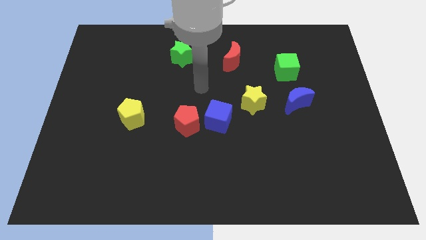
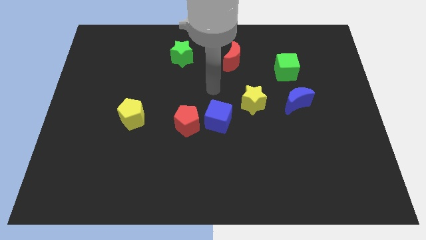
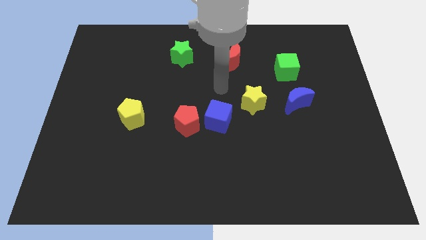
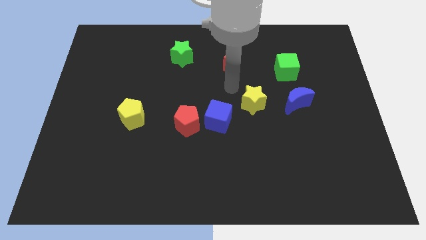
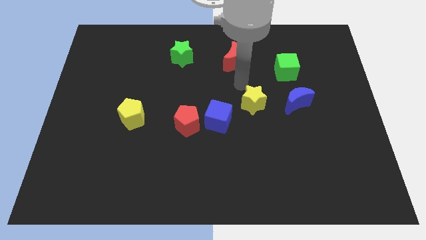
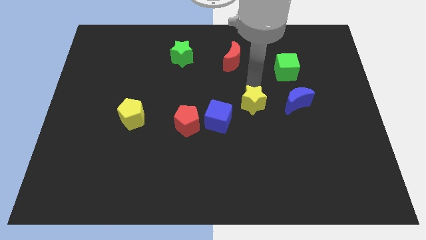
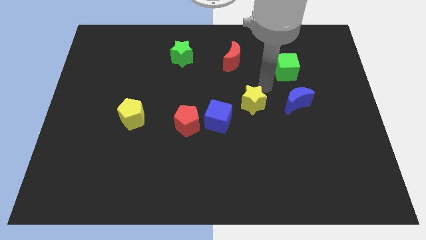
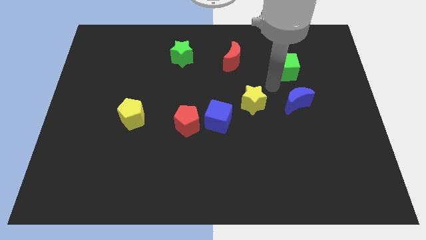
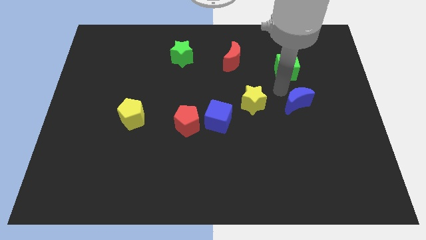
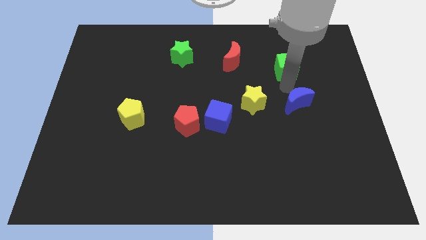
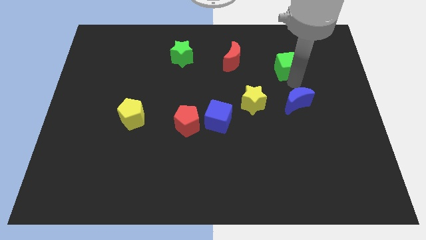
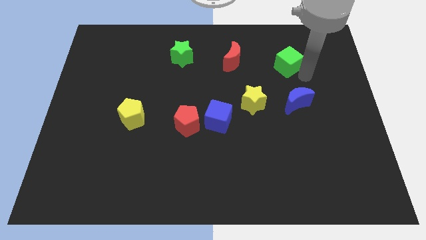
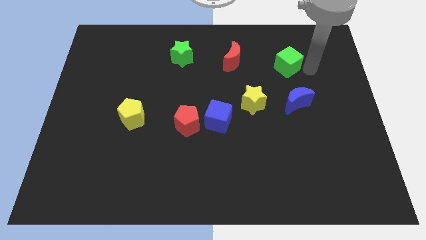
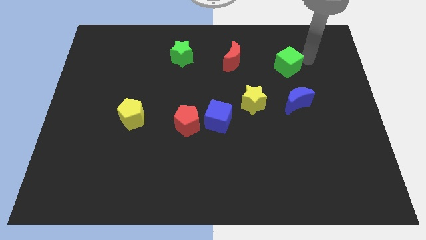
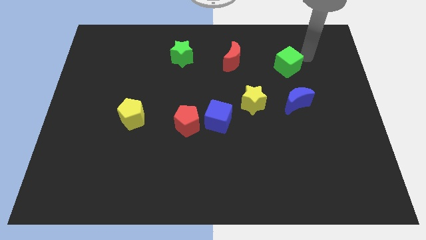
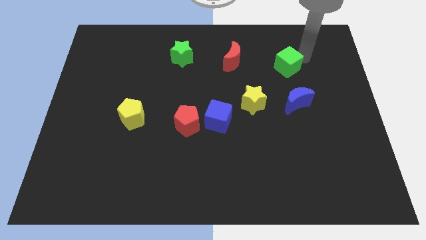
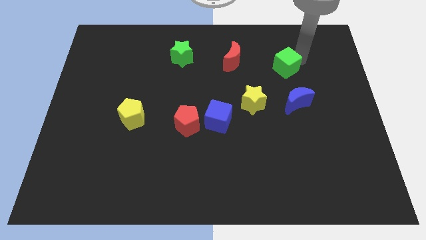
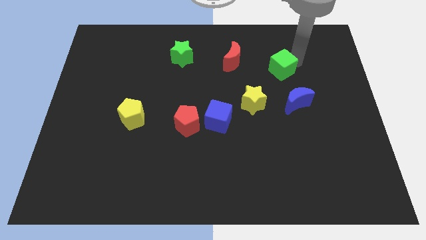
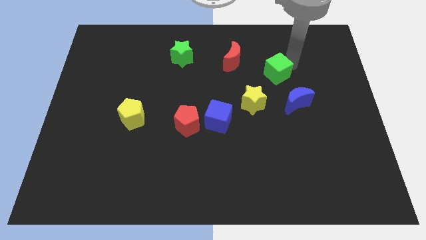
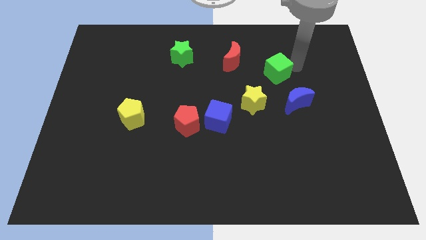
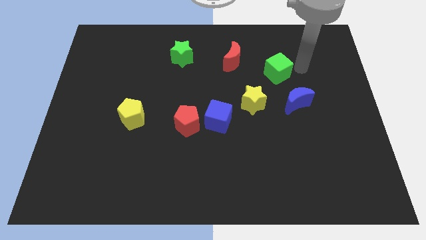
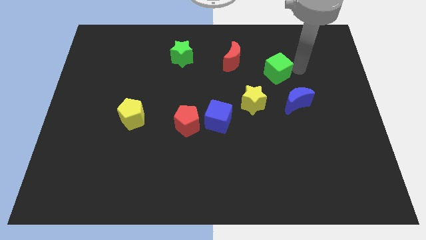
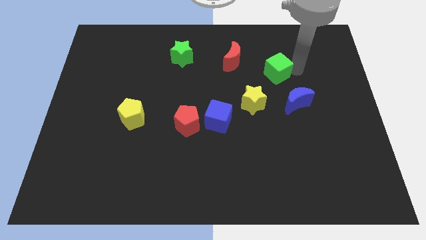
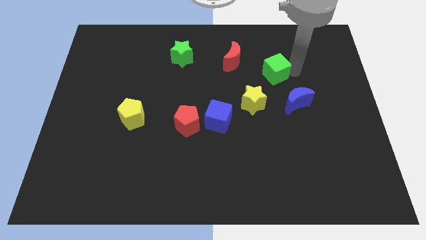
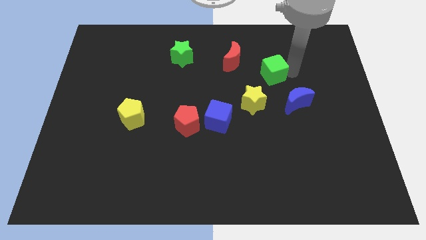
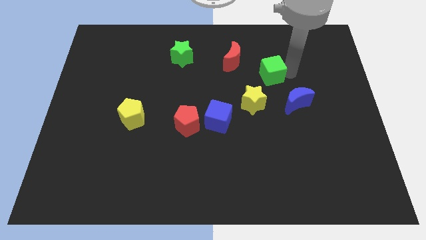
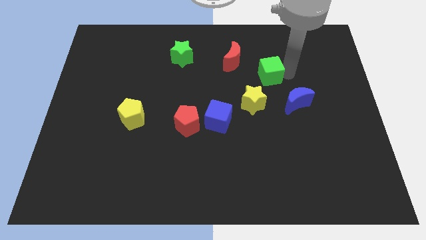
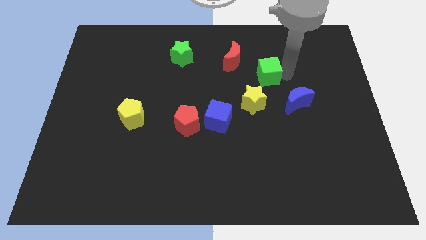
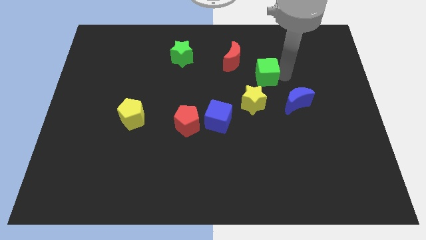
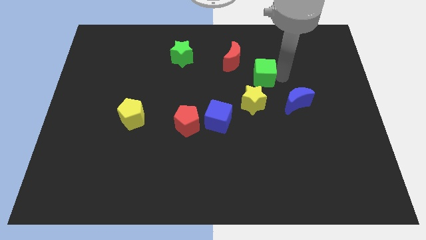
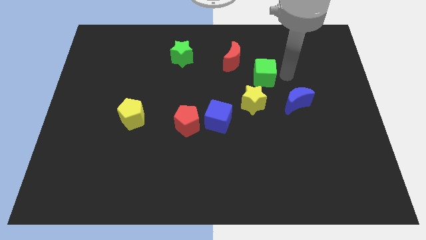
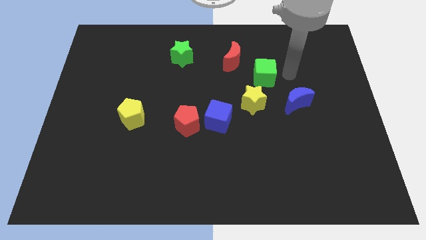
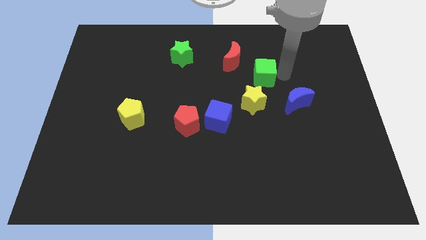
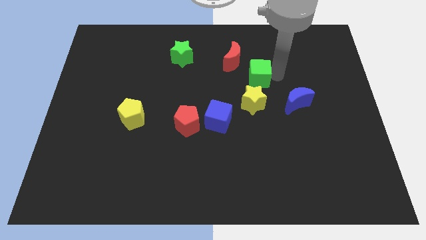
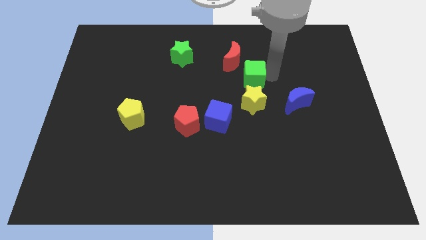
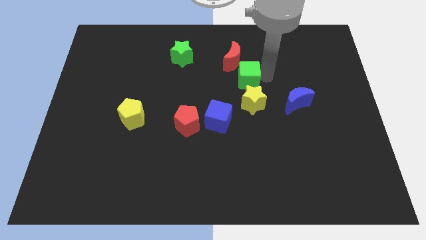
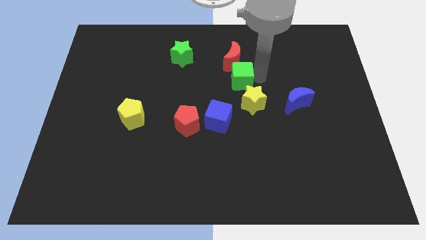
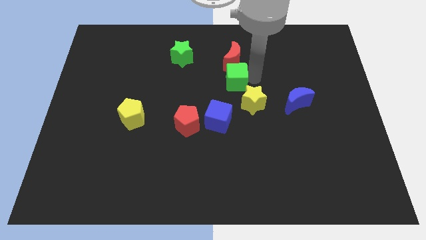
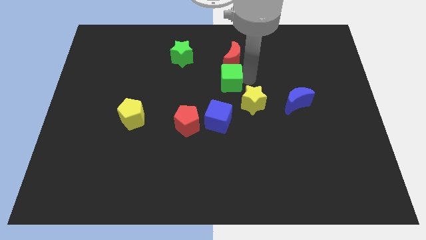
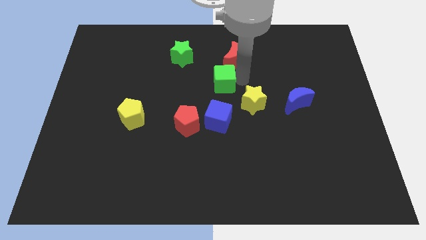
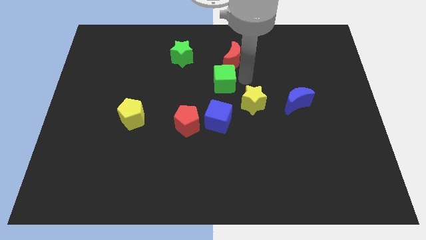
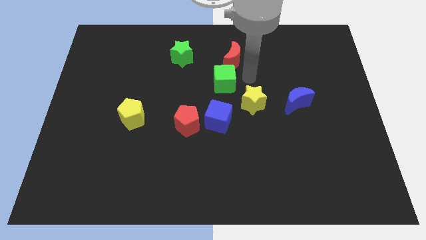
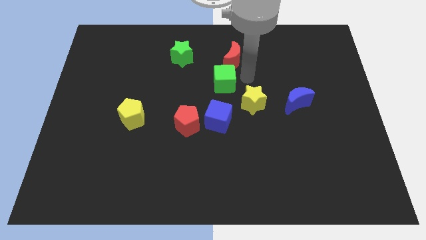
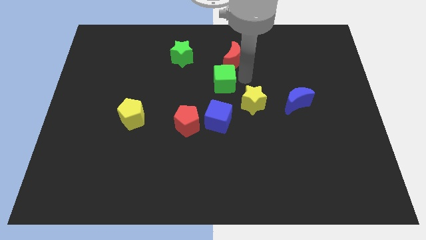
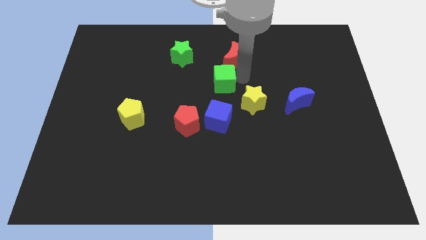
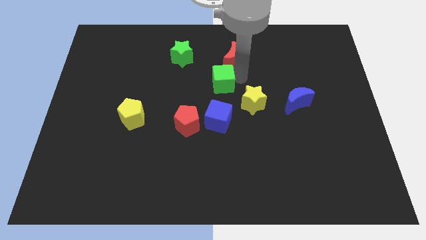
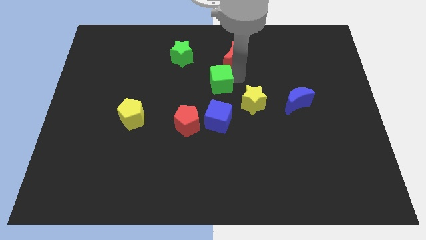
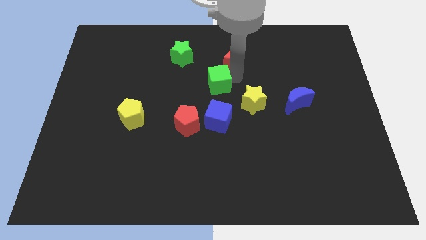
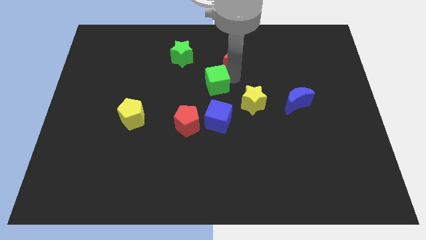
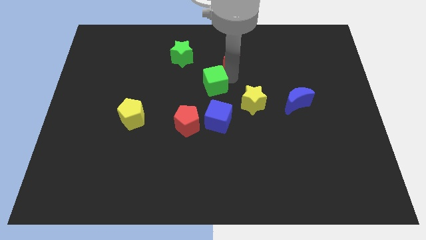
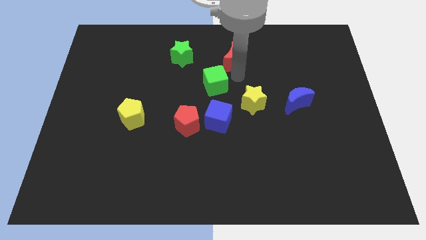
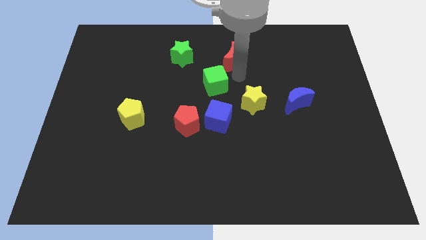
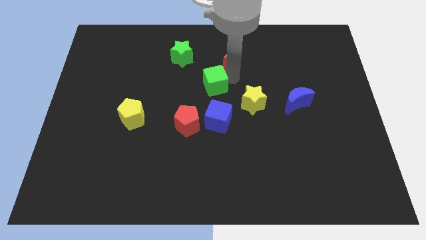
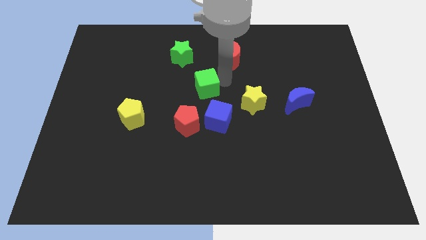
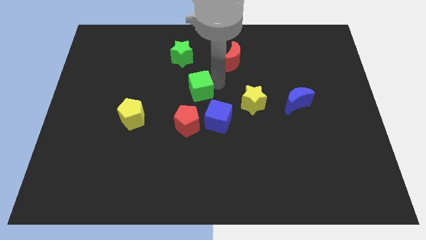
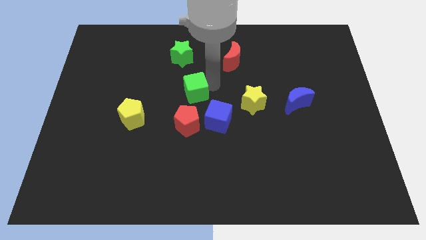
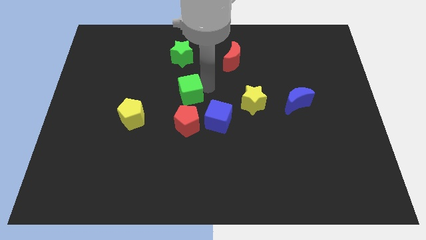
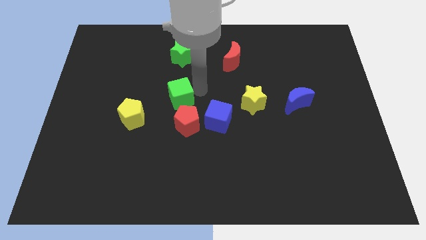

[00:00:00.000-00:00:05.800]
push the green cube to the top right of the yellow pentagon

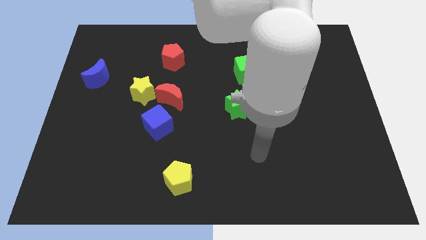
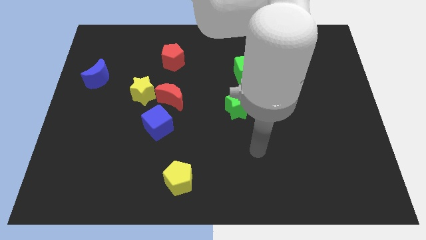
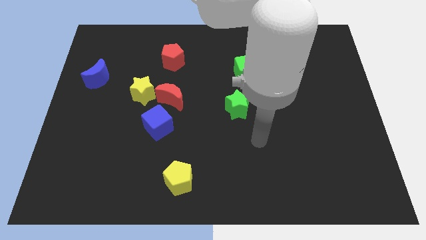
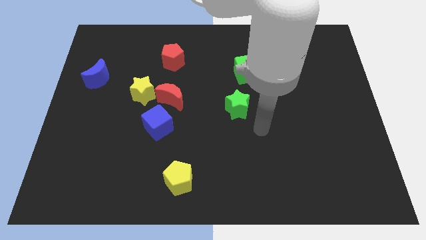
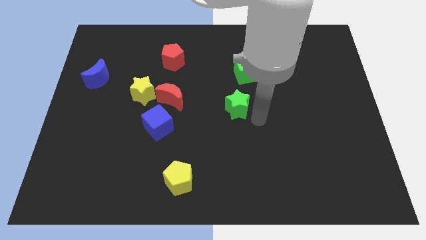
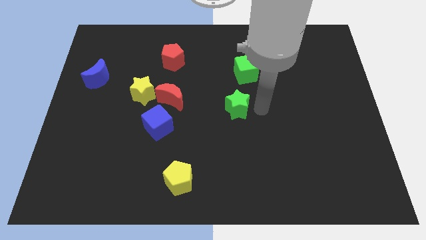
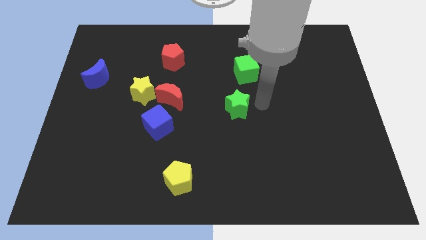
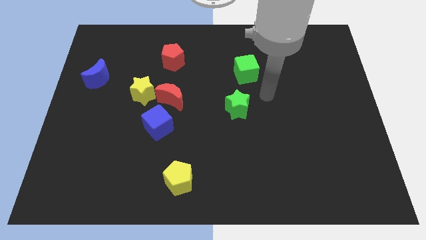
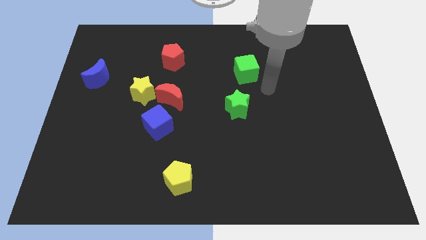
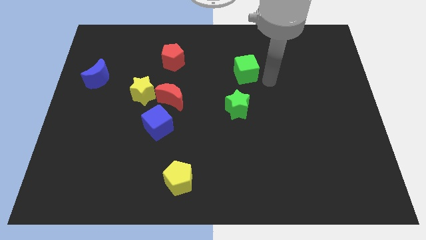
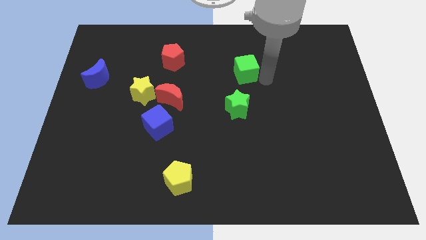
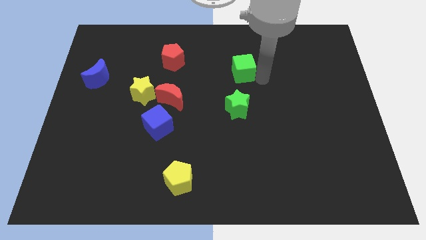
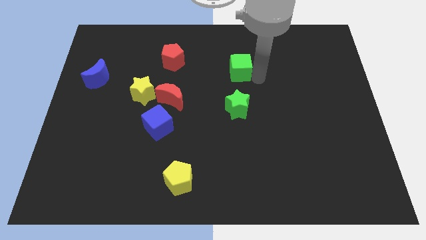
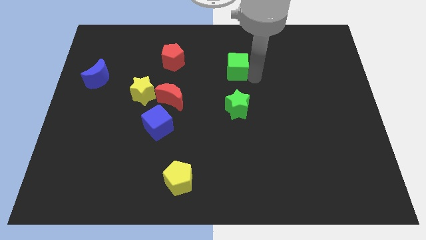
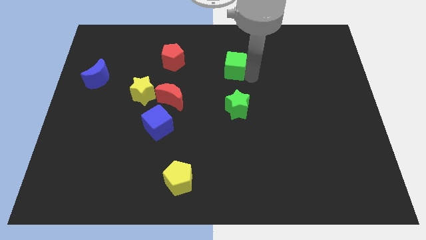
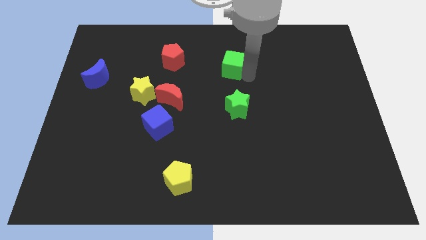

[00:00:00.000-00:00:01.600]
put the green cube right of the red pentagon

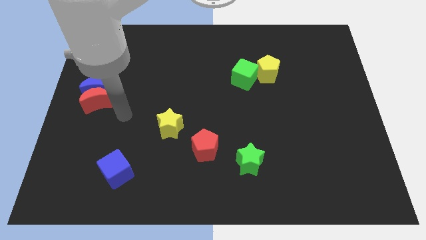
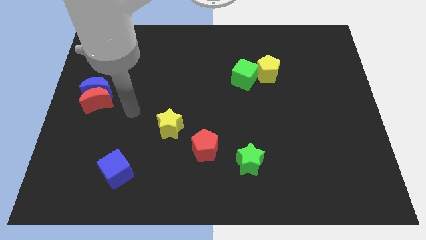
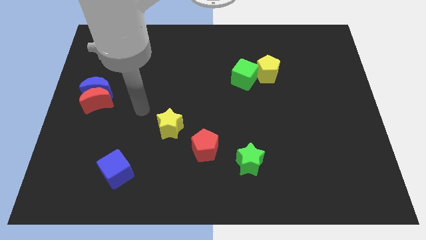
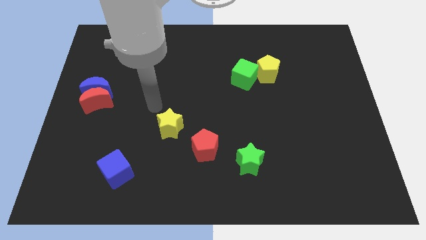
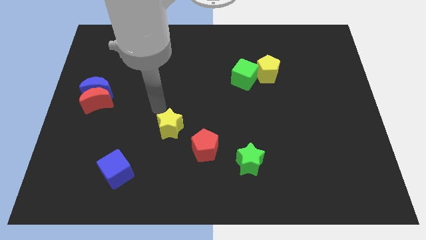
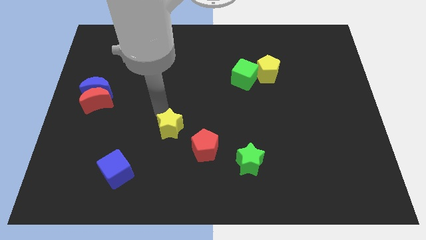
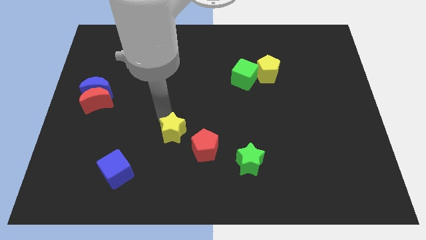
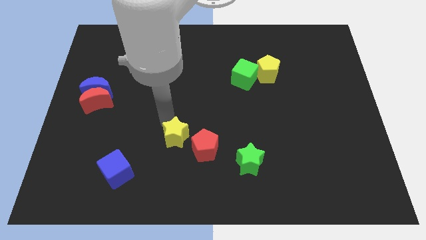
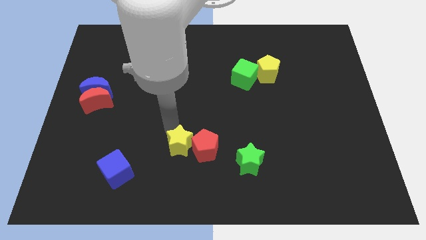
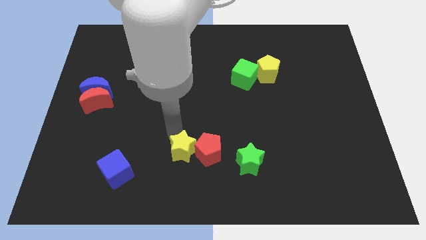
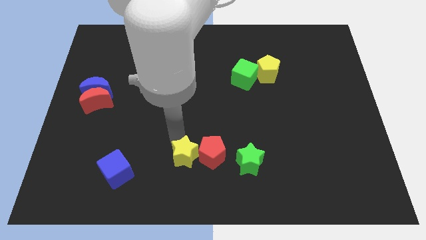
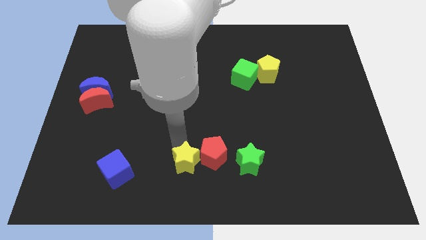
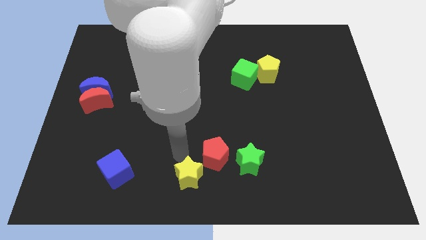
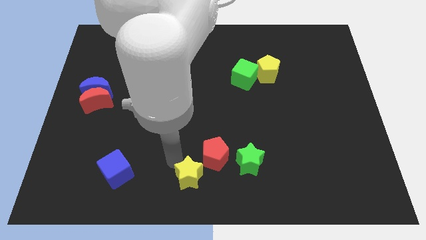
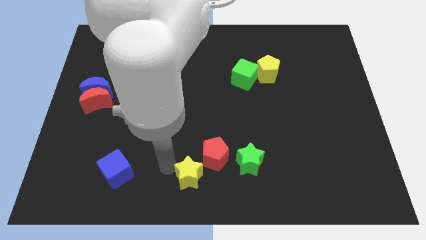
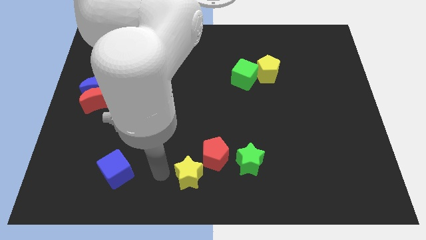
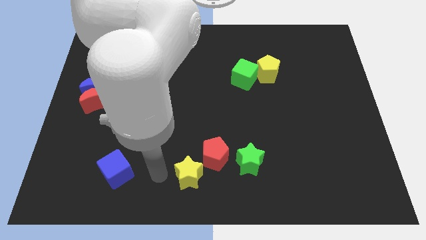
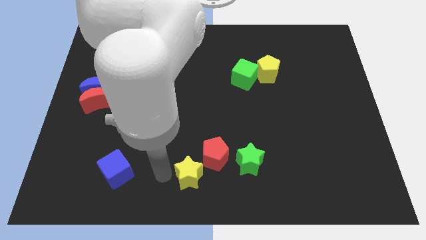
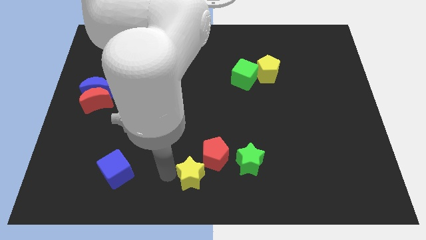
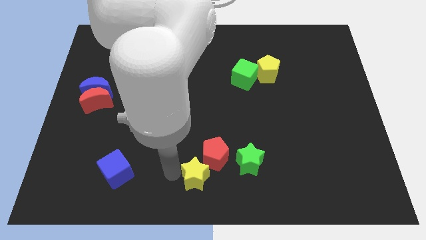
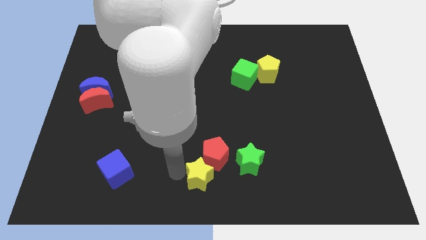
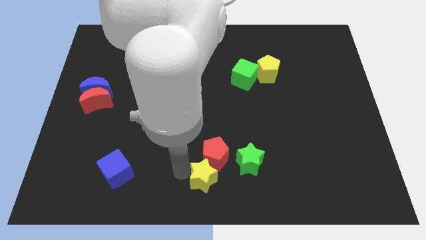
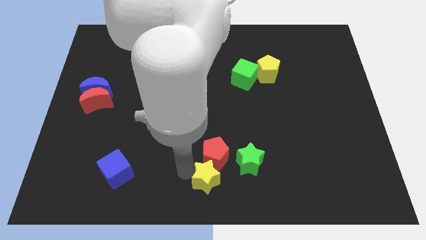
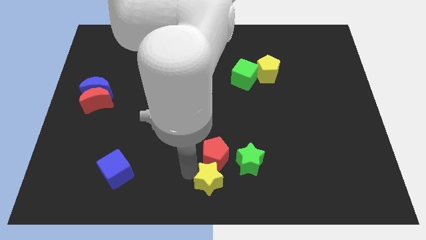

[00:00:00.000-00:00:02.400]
slide the yellow star to the bottom right of the red pentagon
